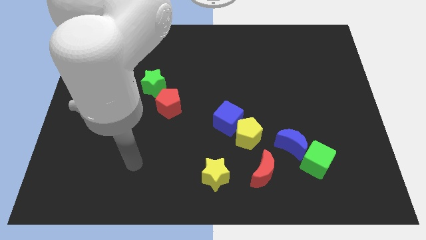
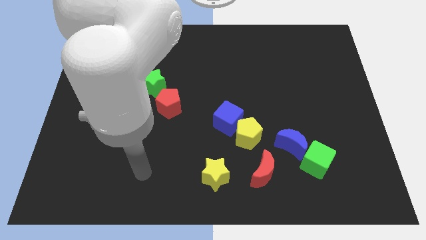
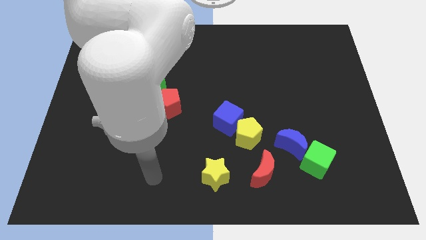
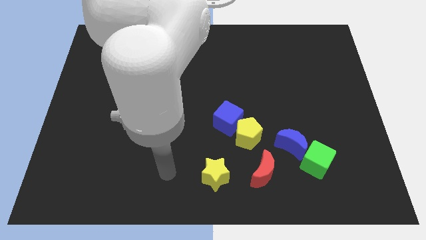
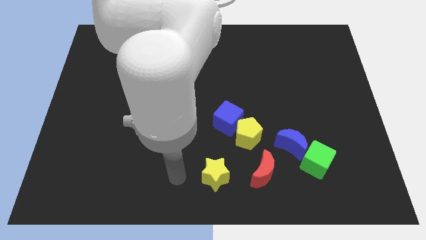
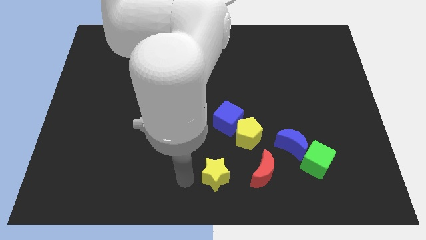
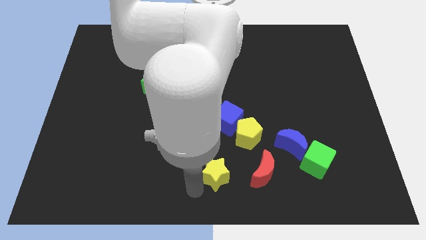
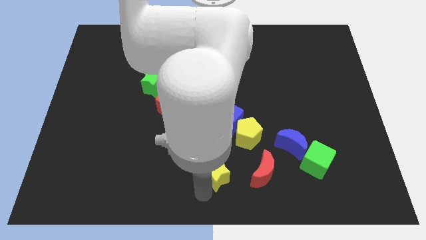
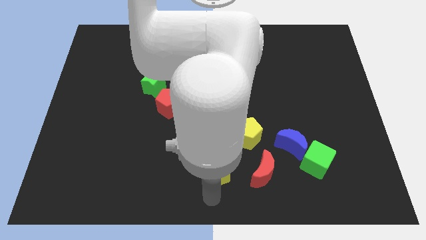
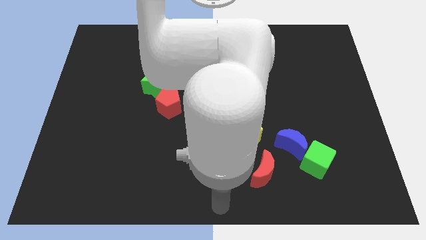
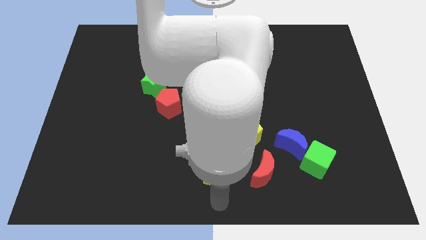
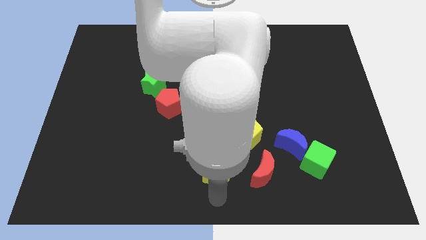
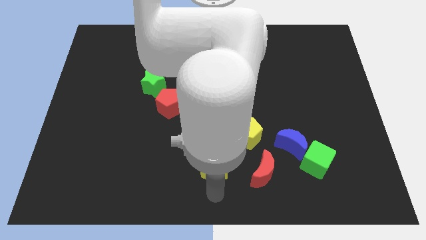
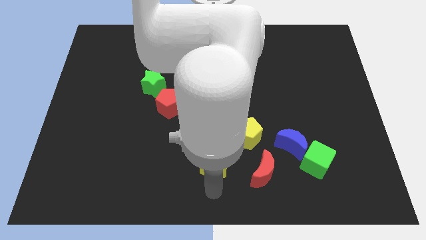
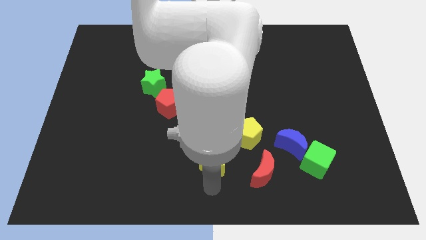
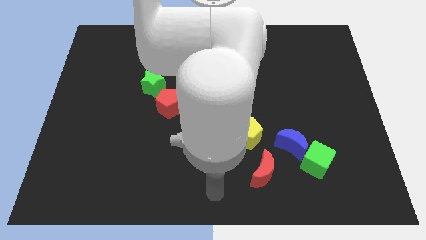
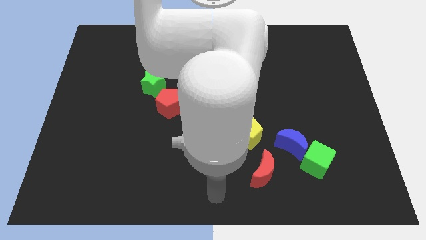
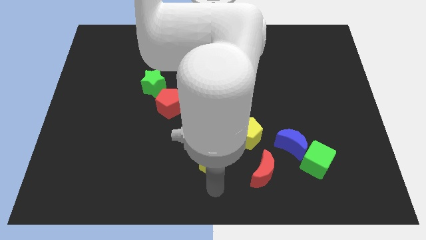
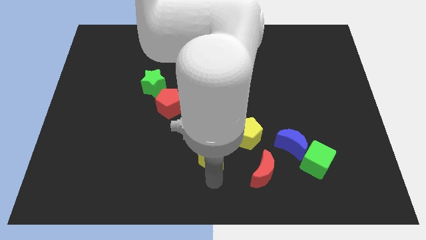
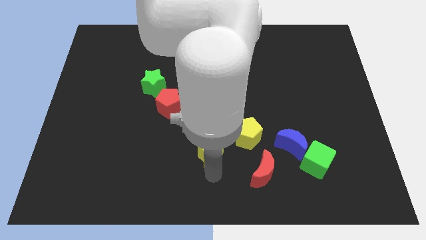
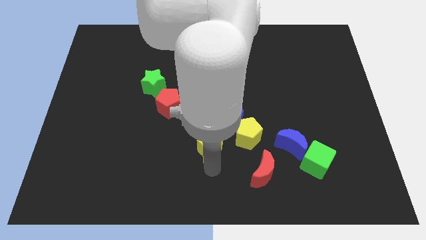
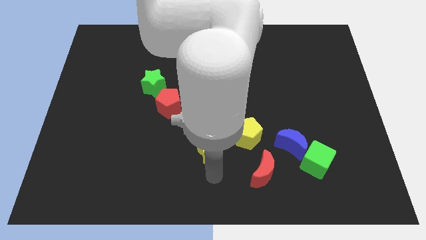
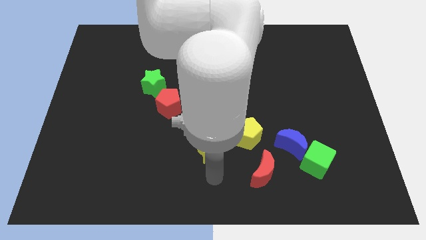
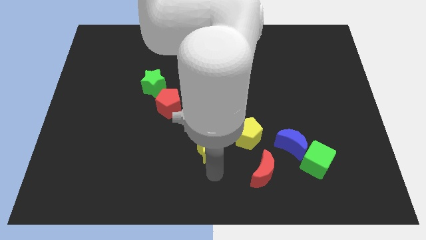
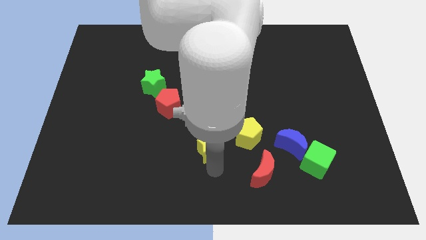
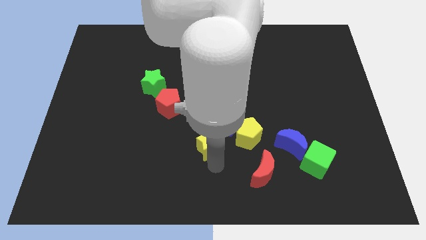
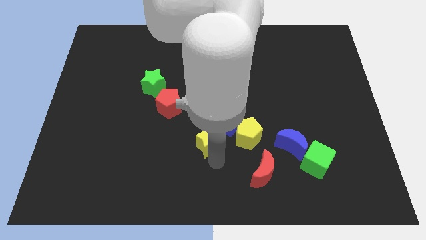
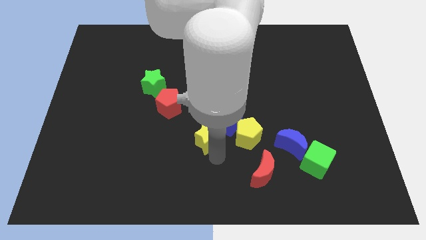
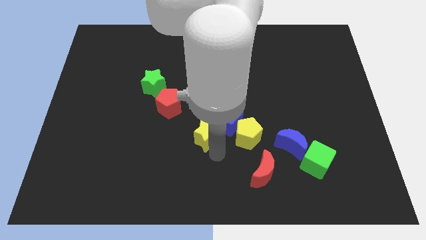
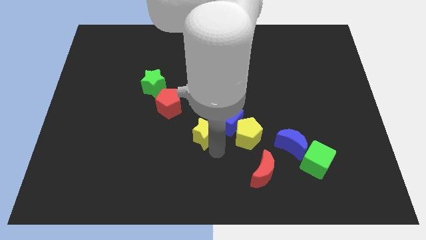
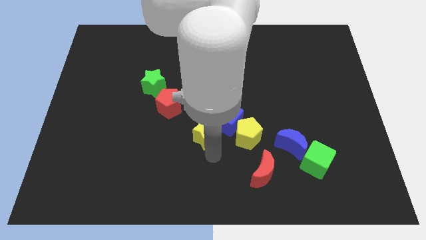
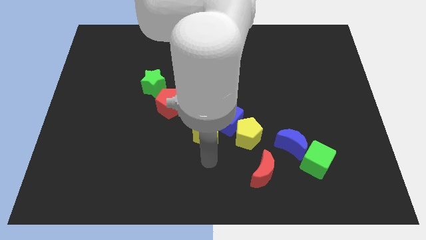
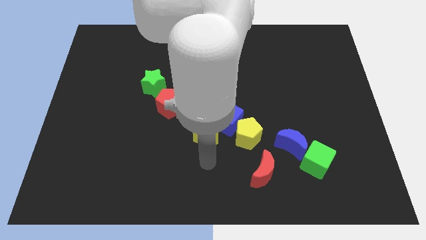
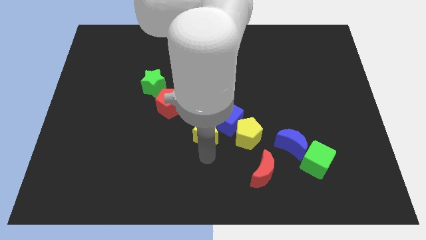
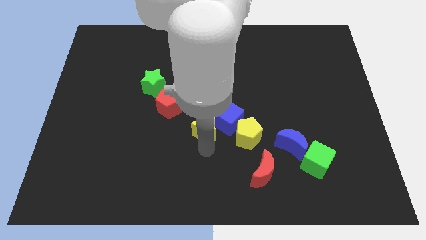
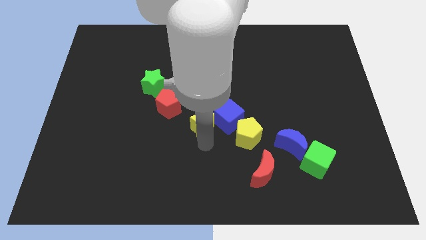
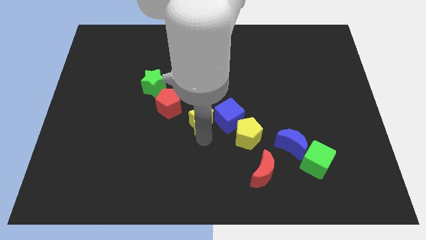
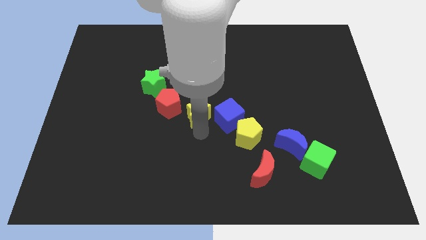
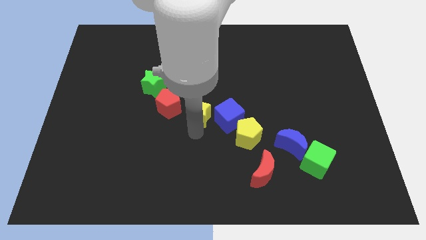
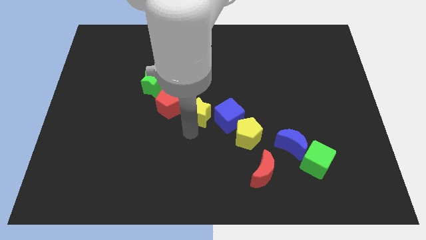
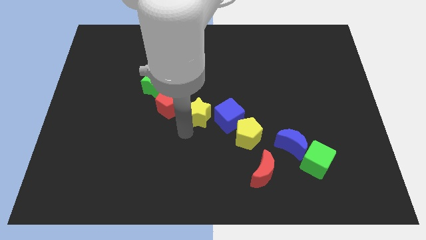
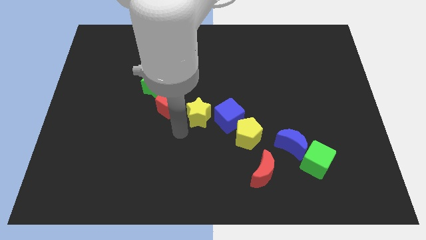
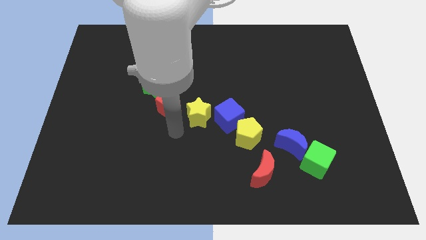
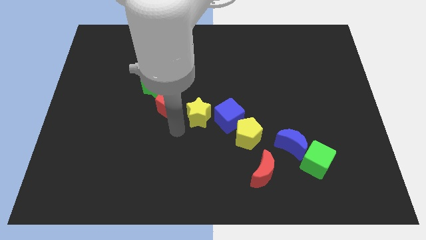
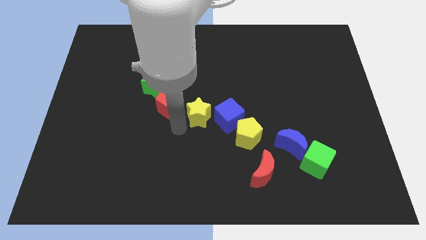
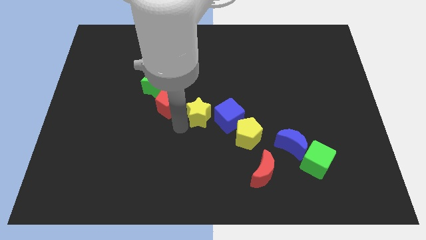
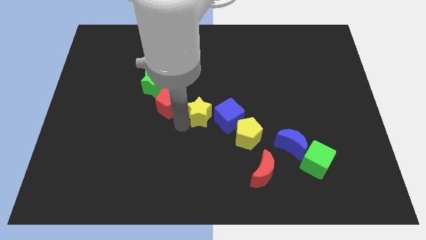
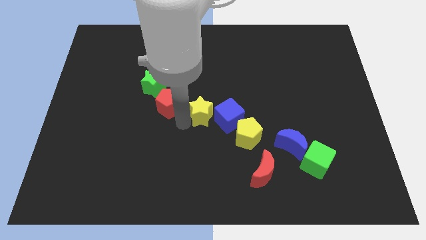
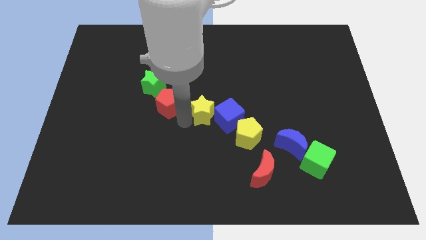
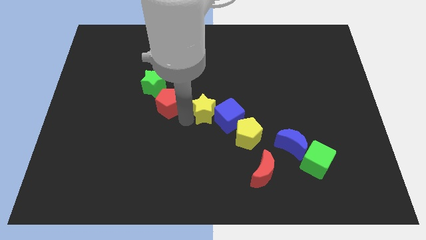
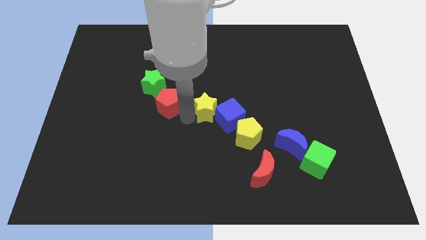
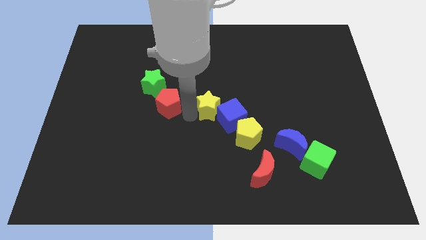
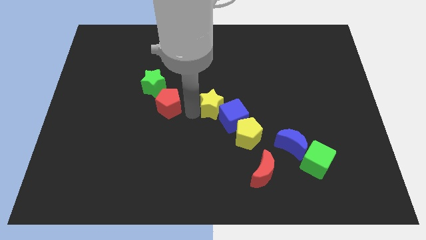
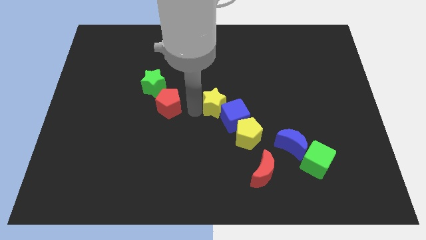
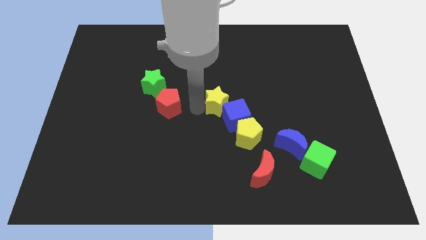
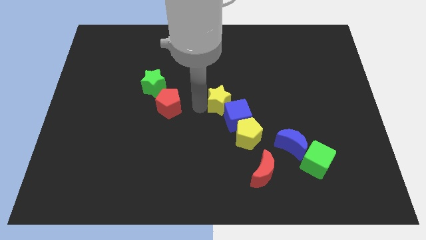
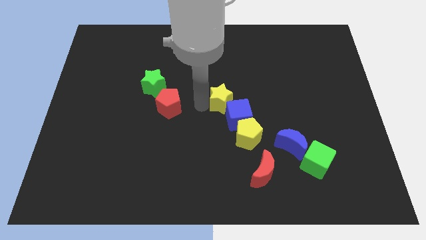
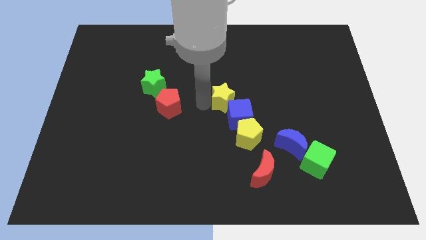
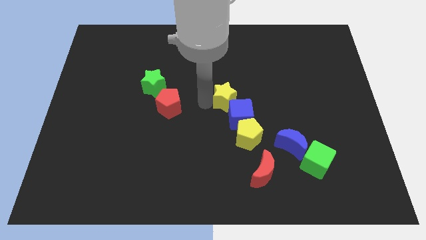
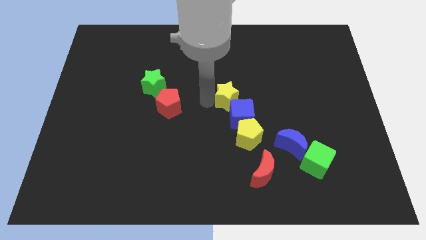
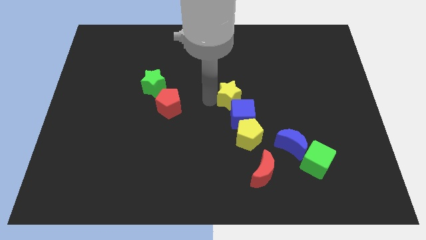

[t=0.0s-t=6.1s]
push the yellow star somewhat up and right diagonally

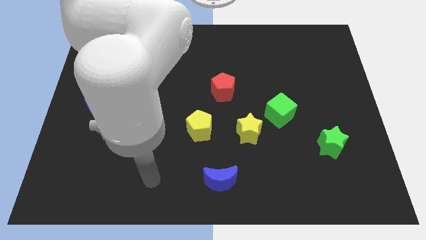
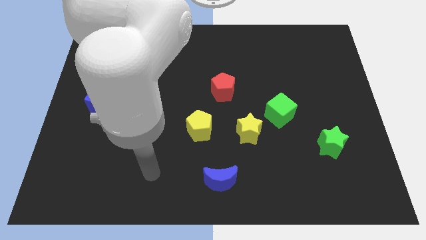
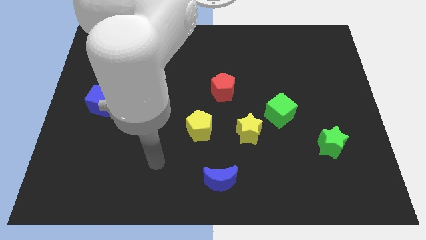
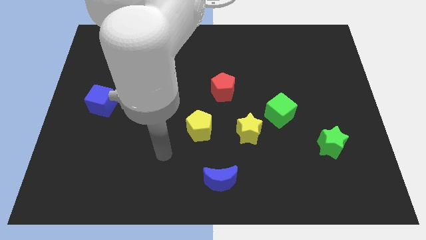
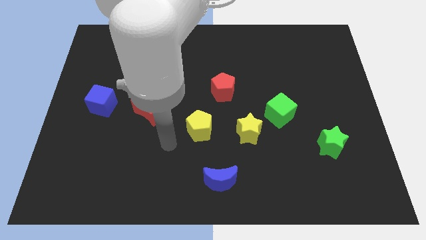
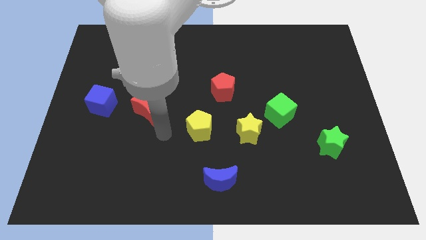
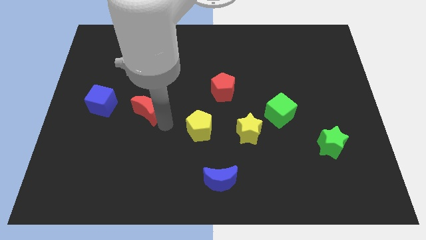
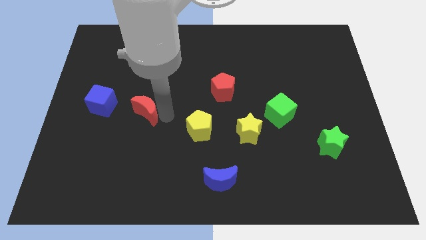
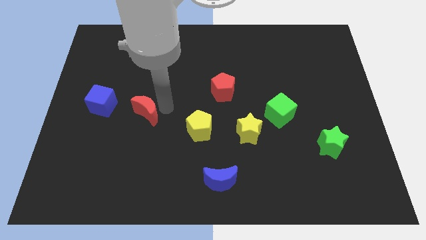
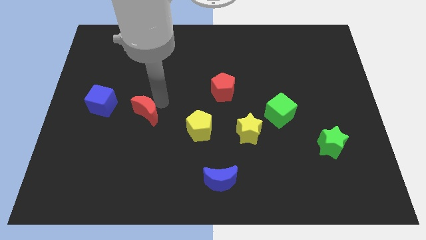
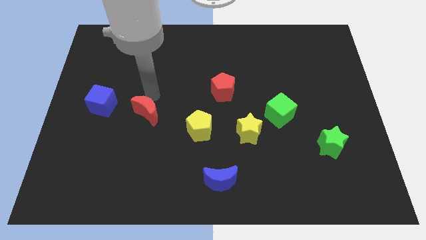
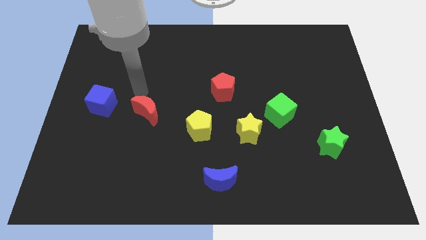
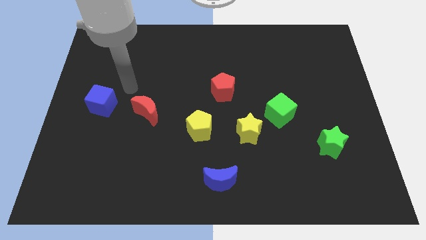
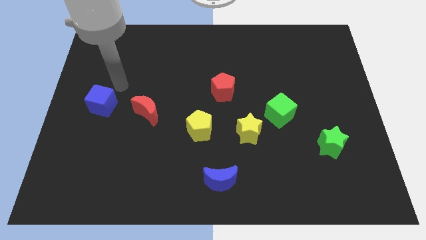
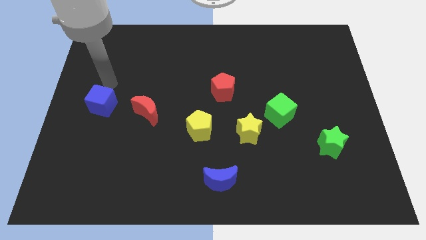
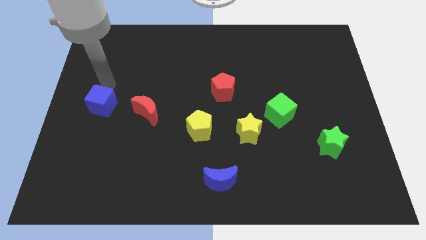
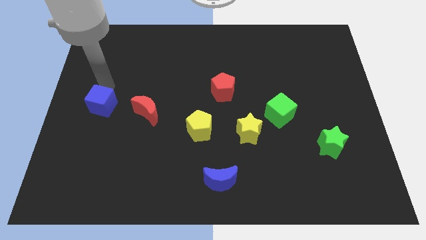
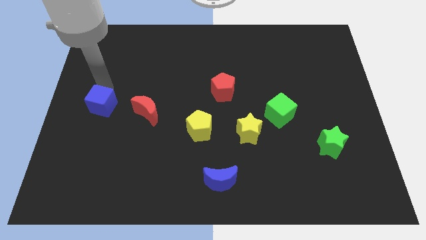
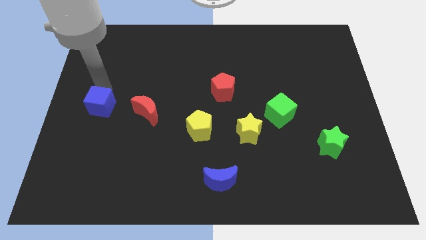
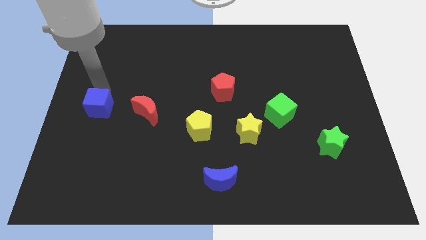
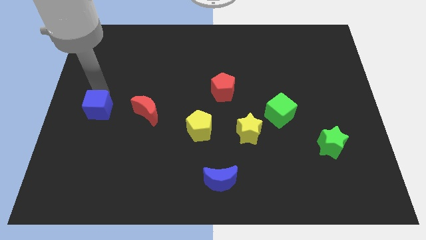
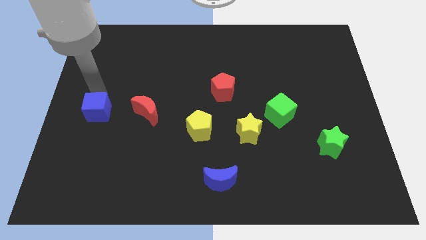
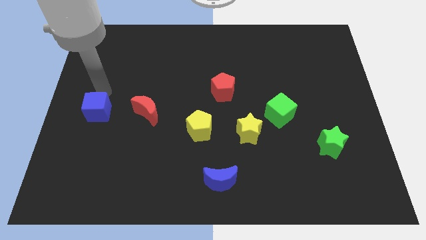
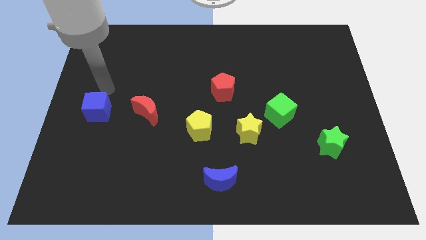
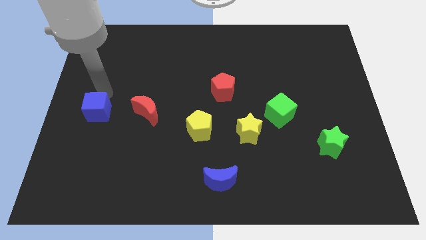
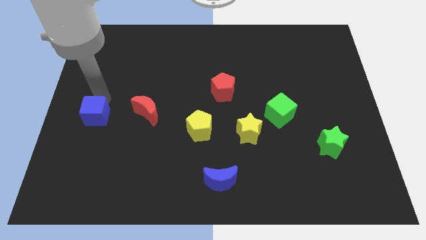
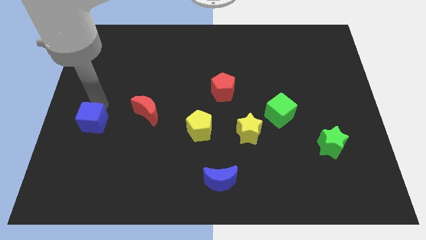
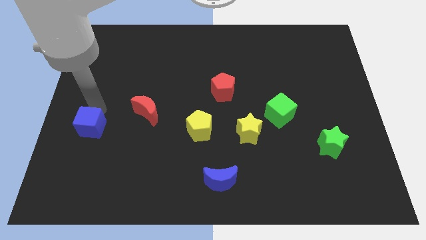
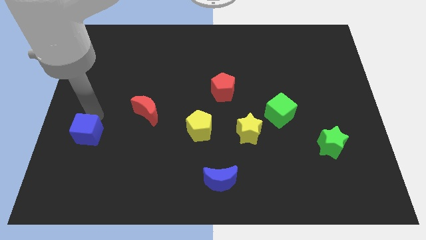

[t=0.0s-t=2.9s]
move the blue cube downwards a bit
